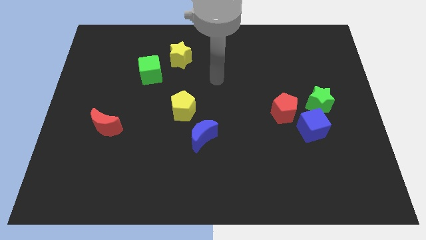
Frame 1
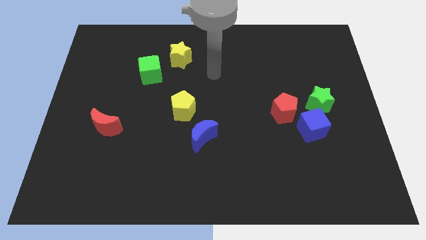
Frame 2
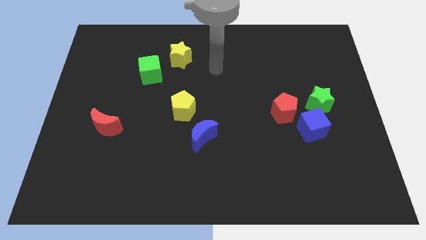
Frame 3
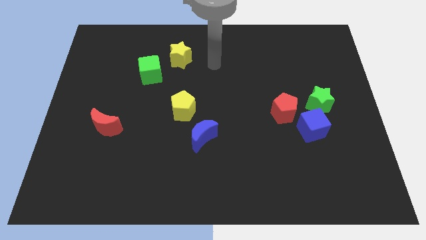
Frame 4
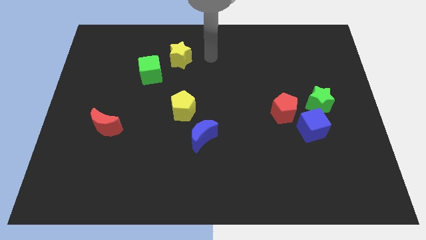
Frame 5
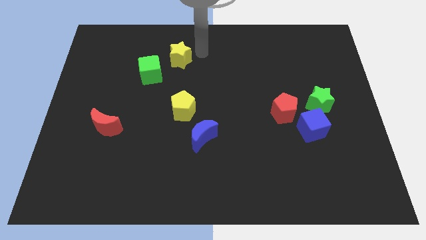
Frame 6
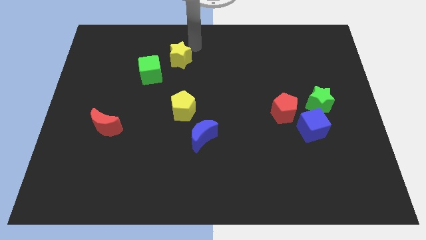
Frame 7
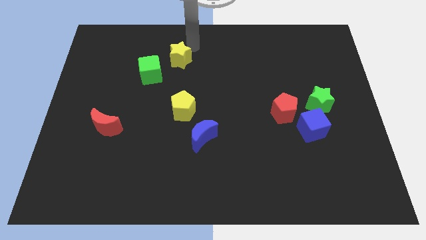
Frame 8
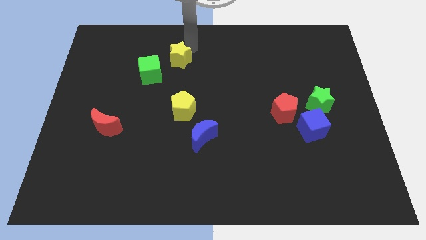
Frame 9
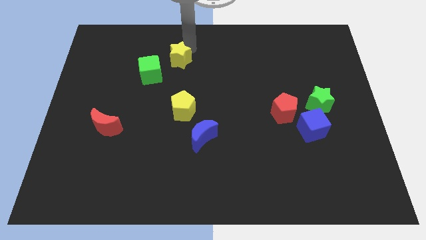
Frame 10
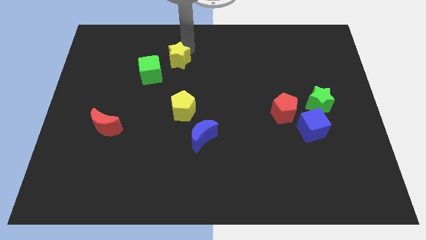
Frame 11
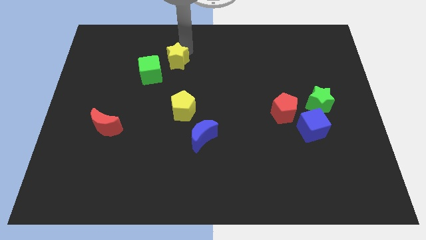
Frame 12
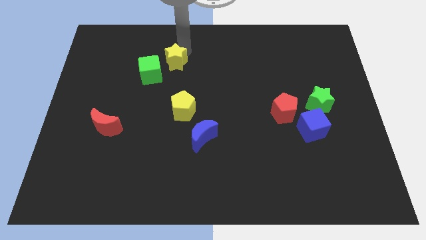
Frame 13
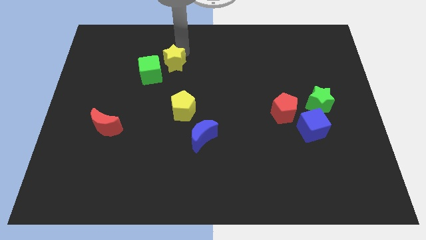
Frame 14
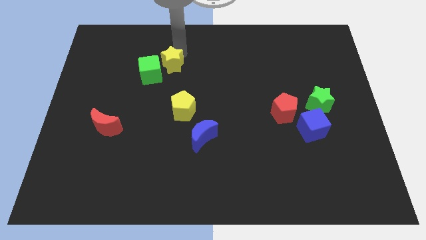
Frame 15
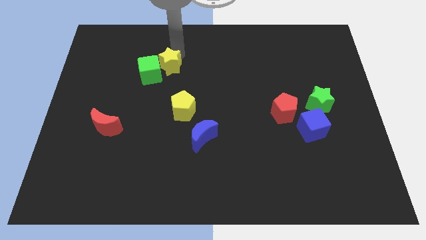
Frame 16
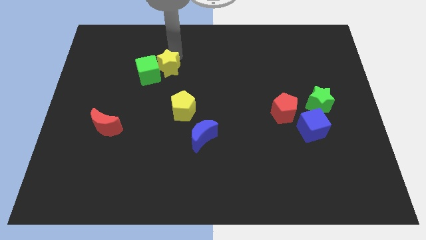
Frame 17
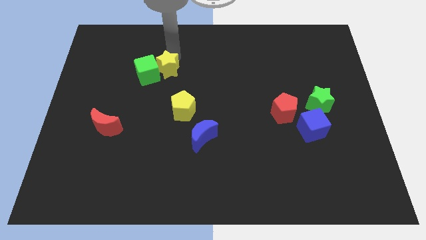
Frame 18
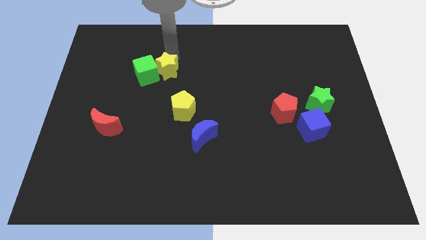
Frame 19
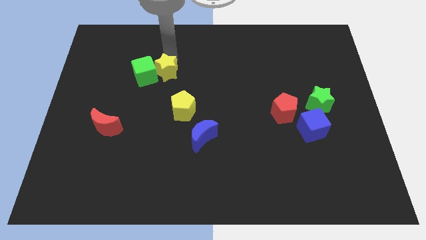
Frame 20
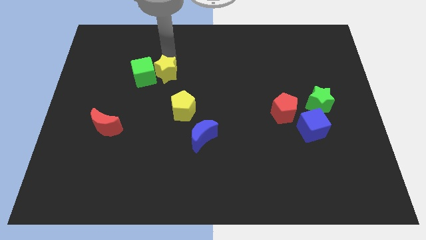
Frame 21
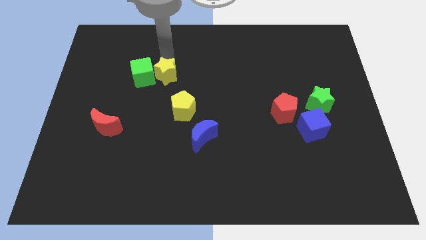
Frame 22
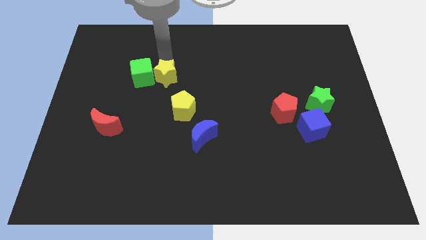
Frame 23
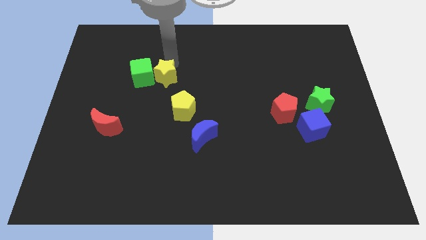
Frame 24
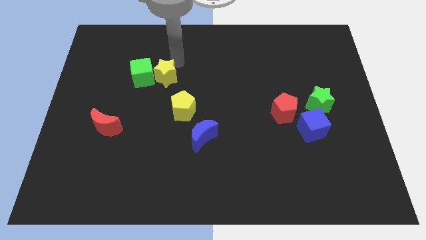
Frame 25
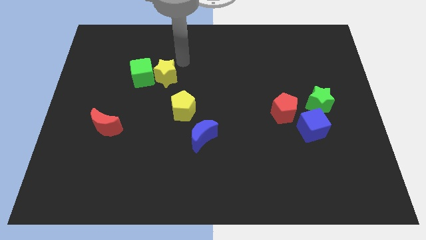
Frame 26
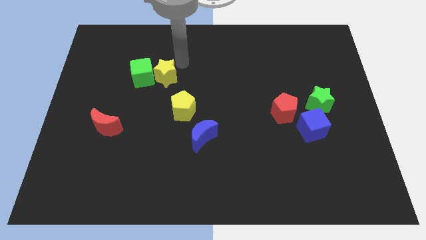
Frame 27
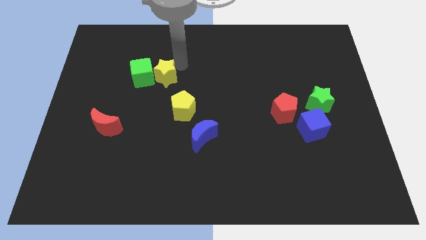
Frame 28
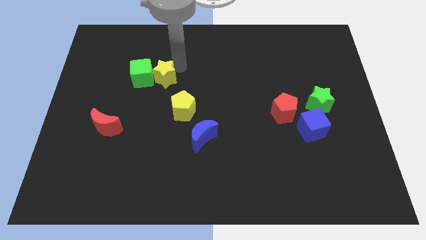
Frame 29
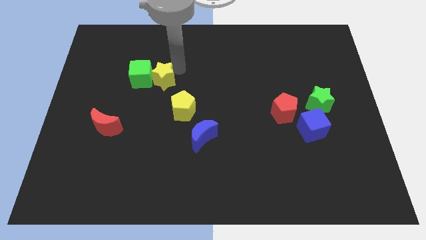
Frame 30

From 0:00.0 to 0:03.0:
move the yellow star somewhat downwards and left

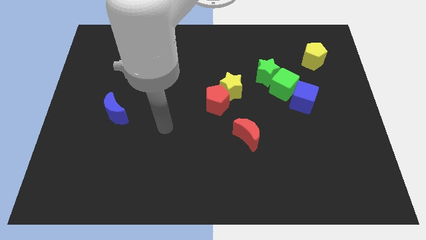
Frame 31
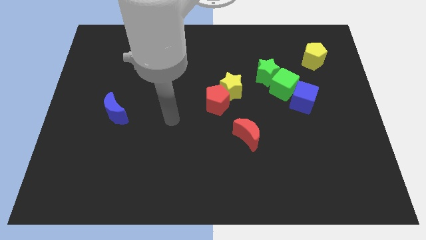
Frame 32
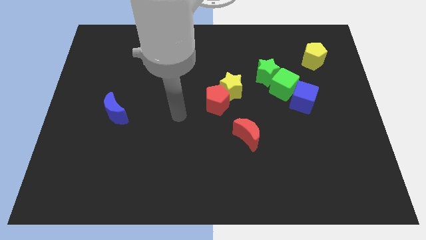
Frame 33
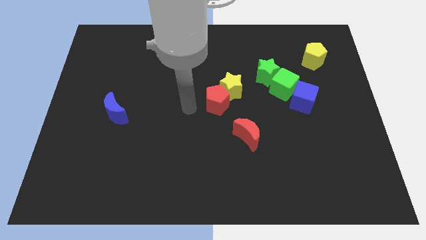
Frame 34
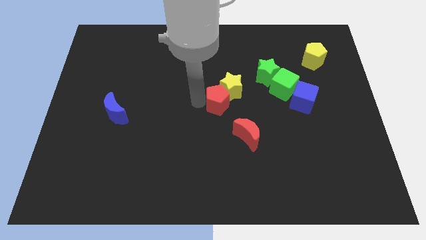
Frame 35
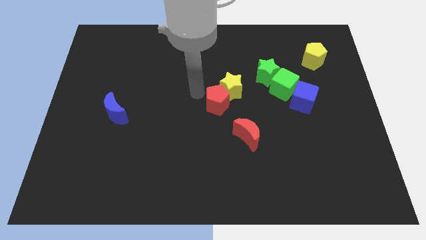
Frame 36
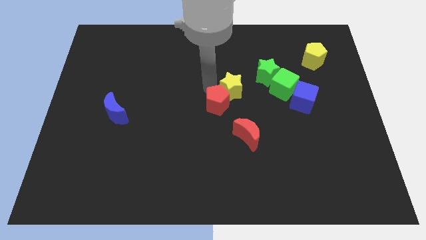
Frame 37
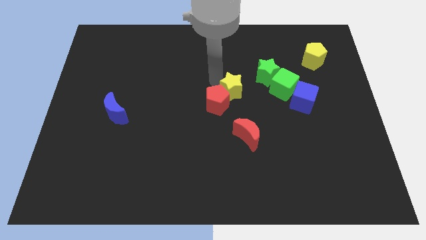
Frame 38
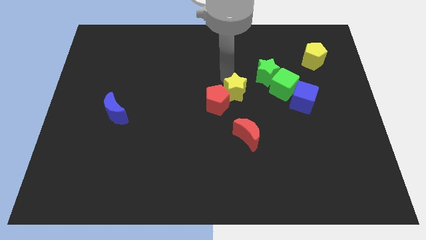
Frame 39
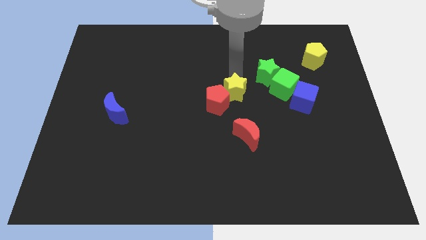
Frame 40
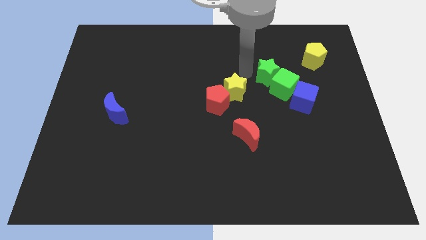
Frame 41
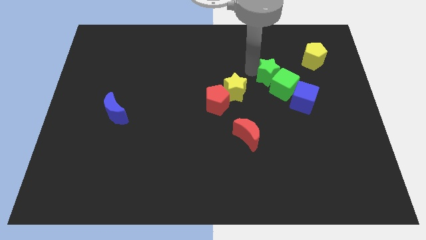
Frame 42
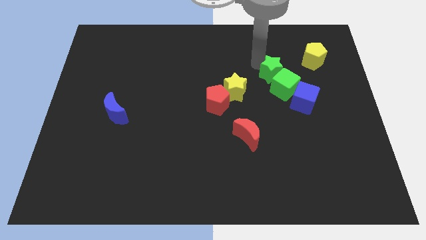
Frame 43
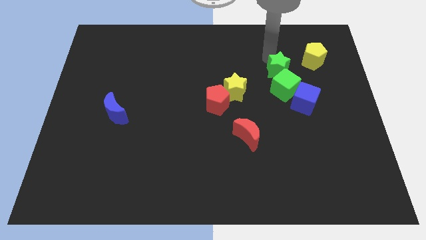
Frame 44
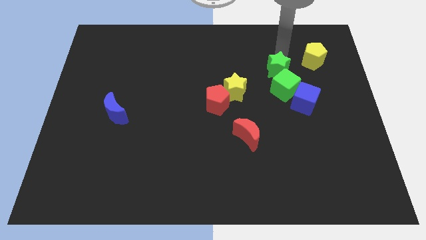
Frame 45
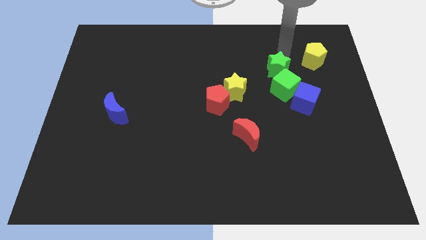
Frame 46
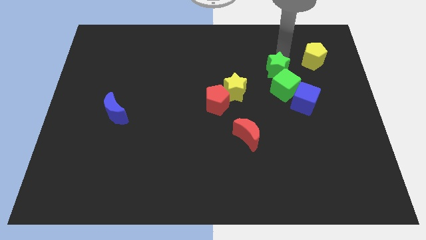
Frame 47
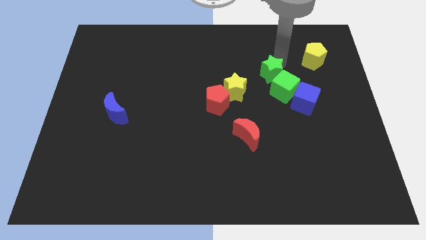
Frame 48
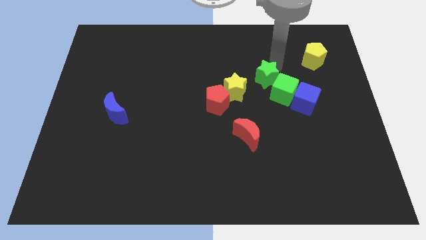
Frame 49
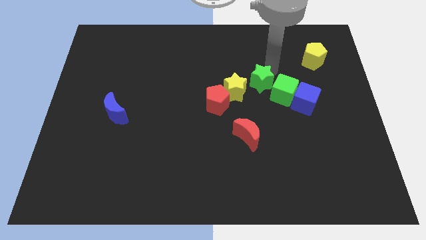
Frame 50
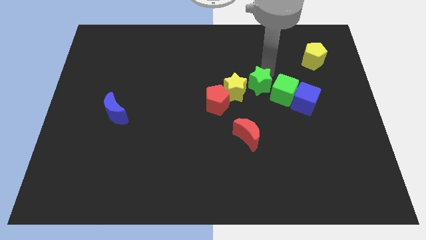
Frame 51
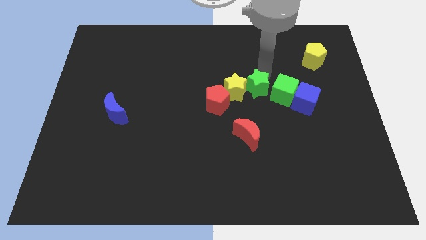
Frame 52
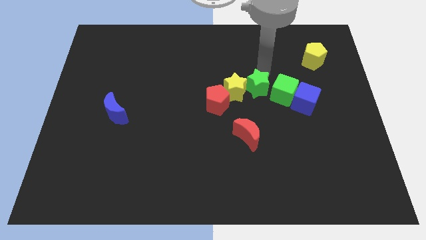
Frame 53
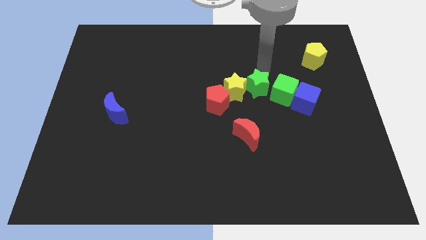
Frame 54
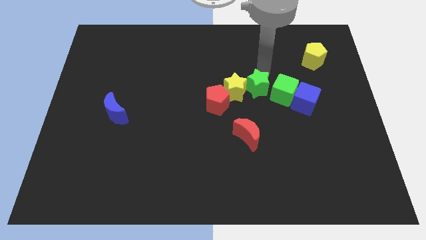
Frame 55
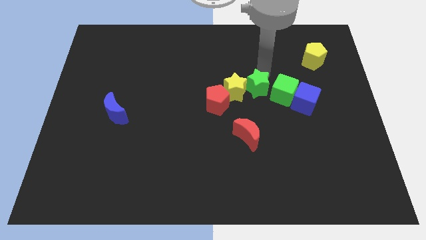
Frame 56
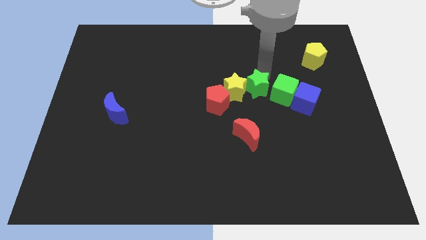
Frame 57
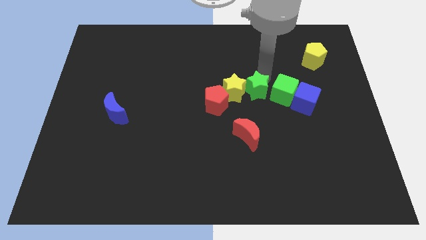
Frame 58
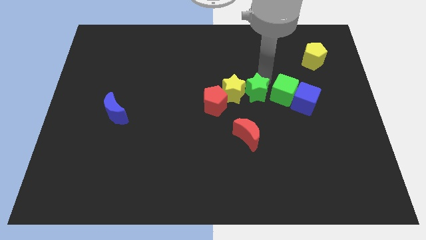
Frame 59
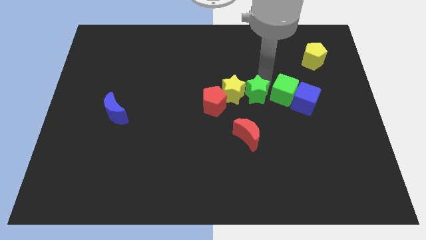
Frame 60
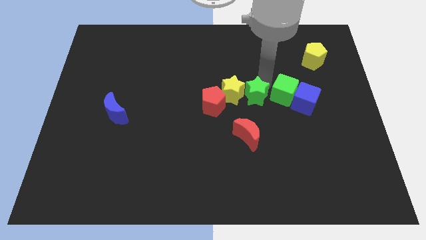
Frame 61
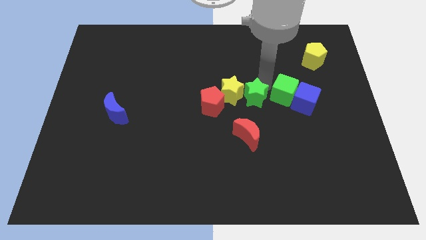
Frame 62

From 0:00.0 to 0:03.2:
move the green star diagonally down and left a bit

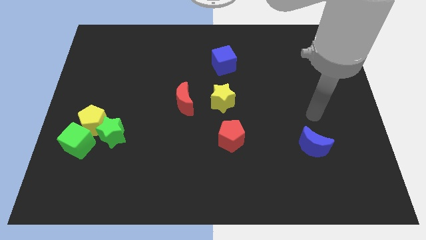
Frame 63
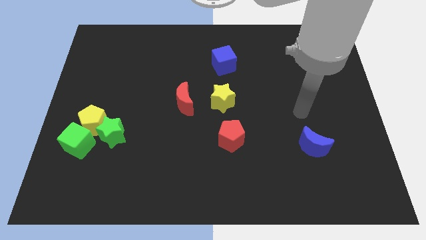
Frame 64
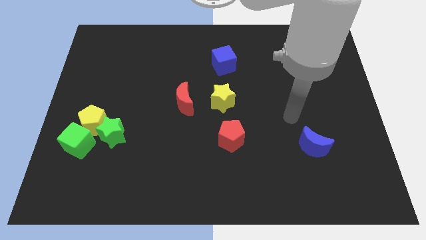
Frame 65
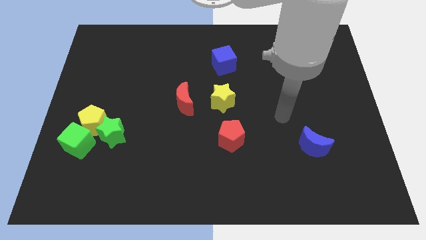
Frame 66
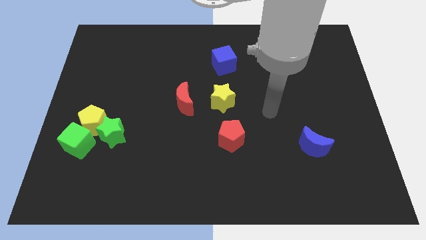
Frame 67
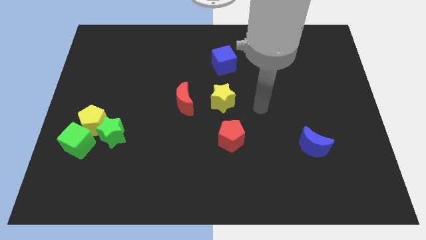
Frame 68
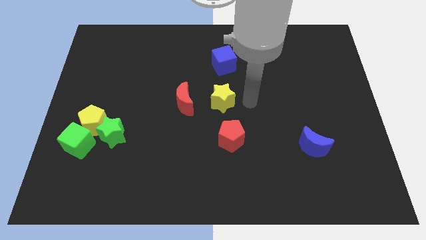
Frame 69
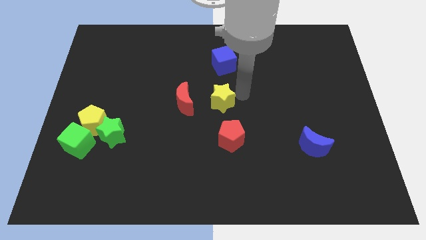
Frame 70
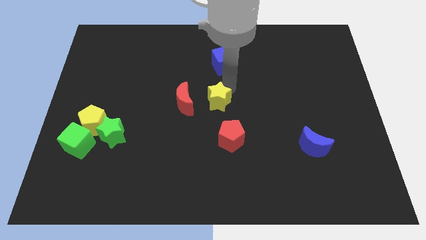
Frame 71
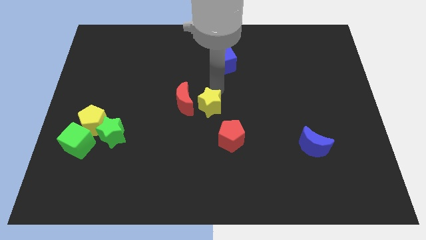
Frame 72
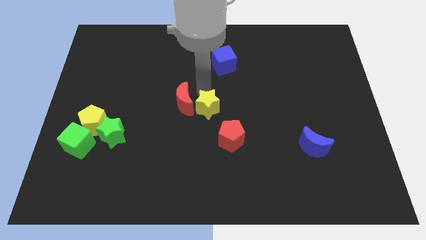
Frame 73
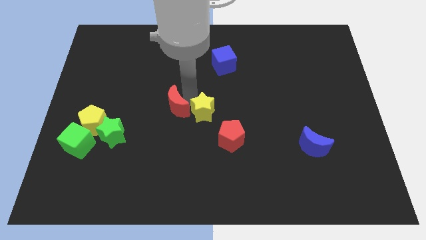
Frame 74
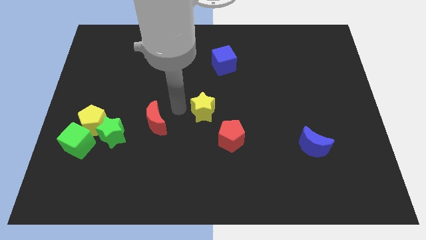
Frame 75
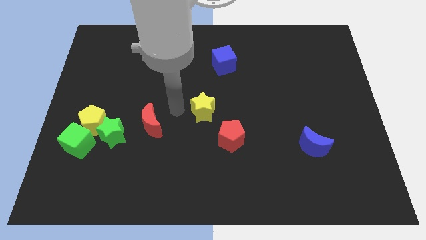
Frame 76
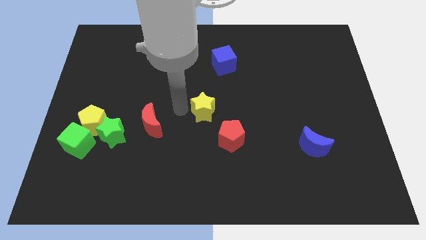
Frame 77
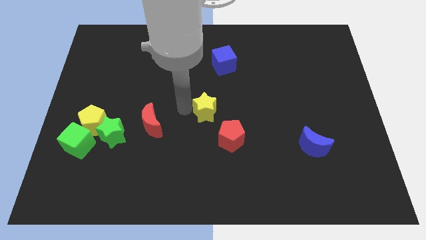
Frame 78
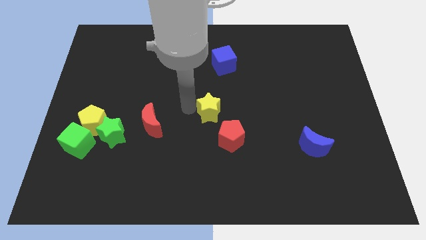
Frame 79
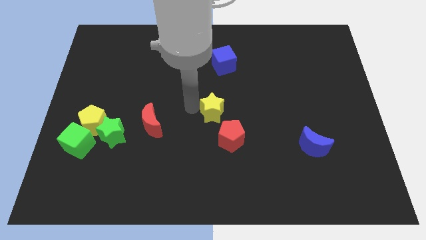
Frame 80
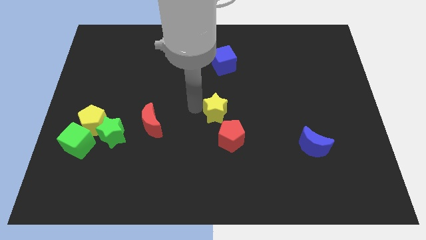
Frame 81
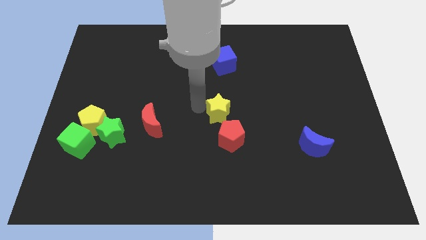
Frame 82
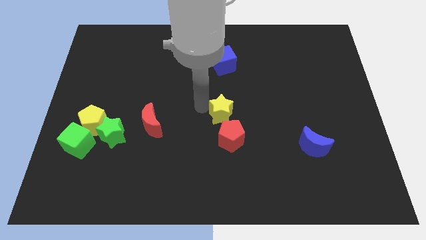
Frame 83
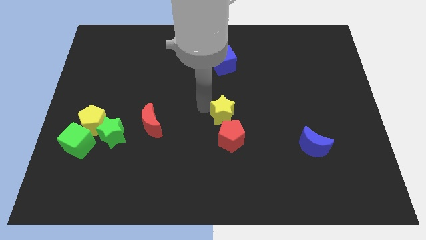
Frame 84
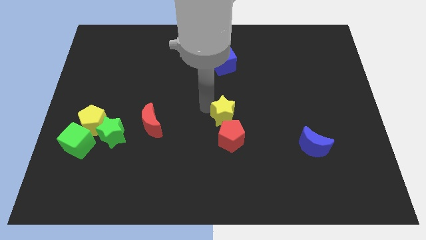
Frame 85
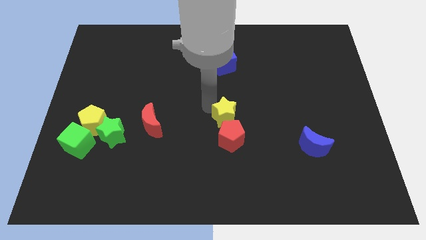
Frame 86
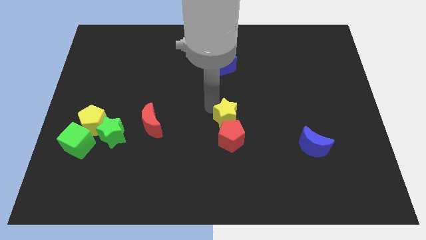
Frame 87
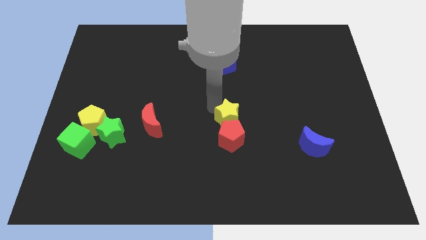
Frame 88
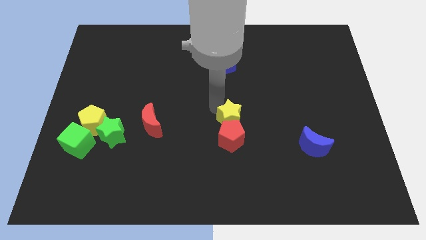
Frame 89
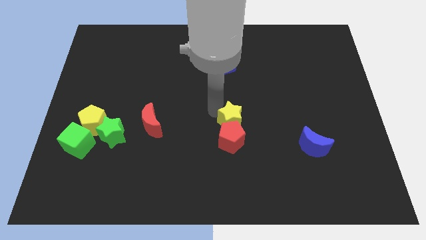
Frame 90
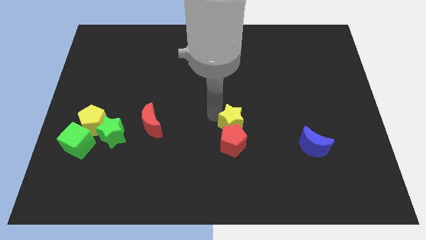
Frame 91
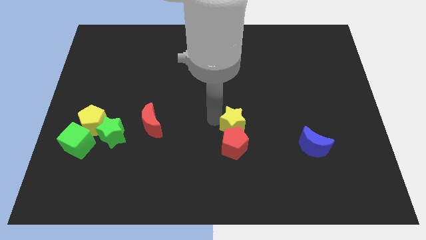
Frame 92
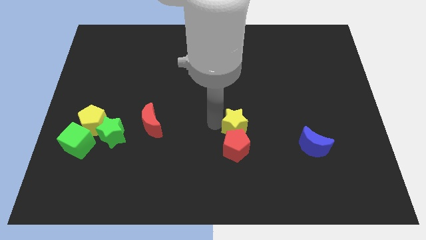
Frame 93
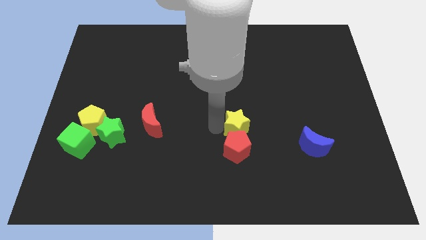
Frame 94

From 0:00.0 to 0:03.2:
slide the yellow star down and right diagonally somewhat
